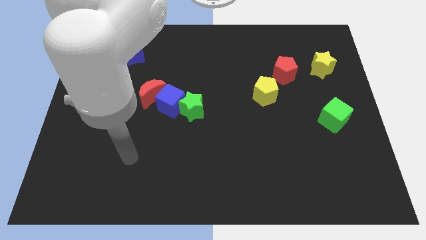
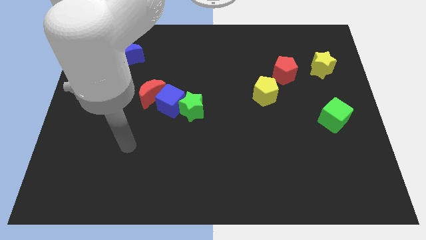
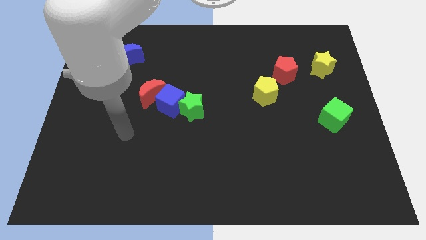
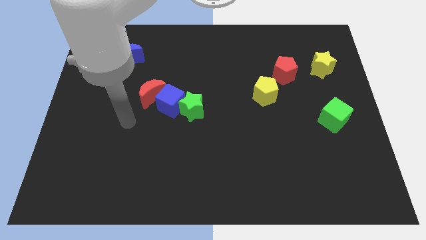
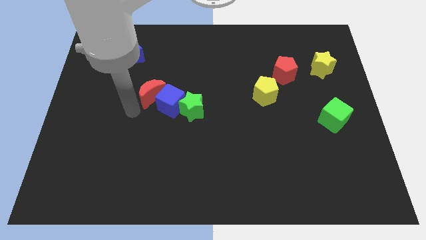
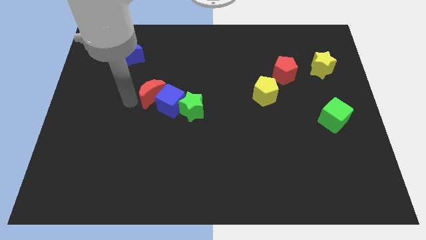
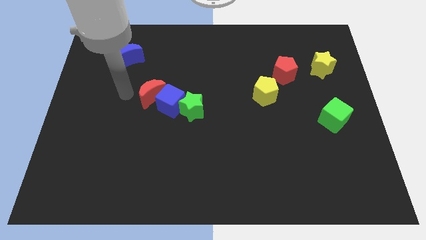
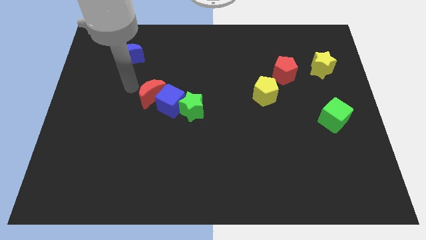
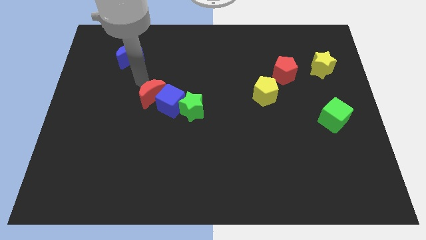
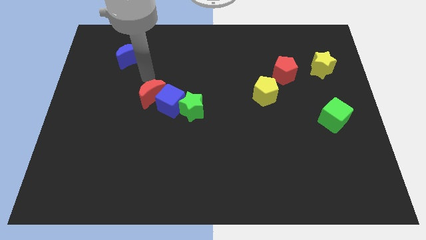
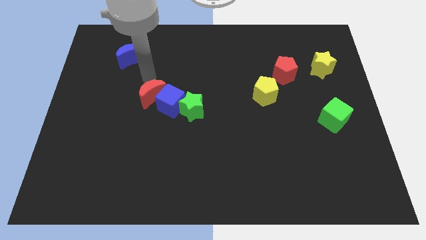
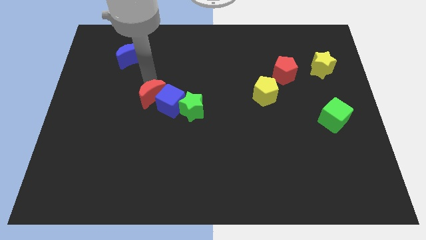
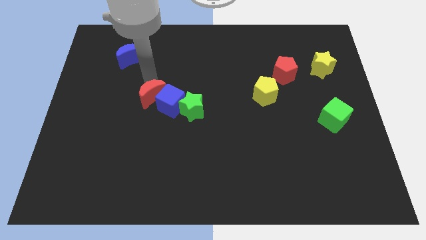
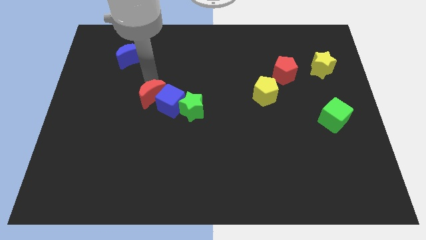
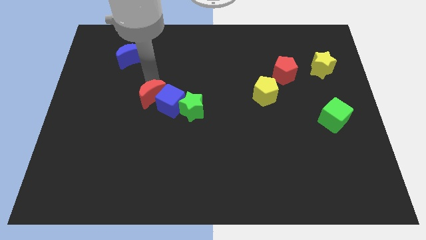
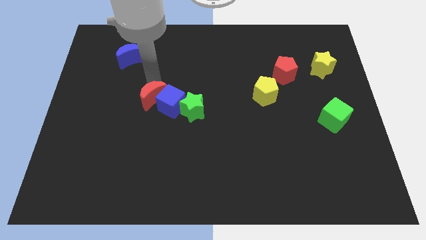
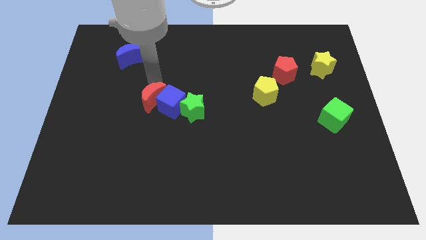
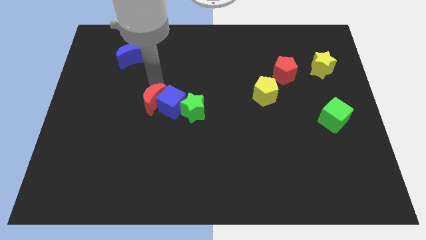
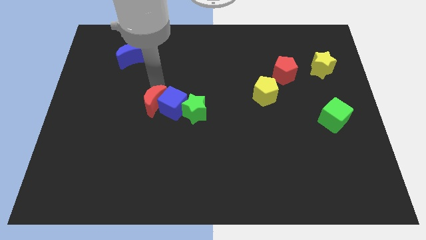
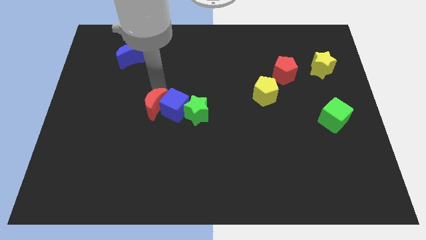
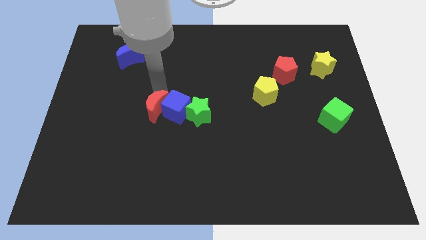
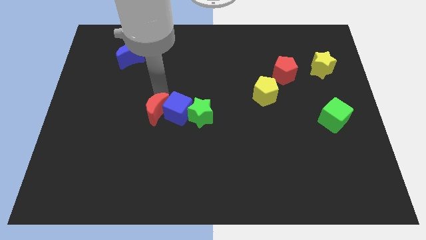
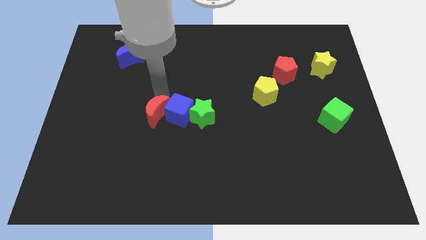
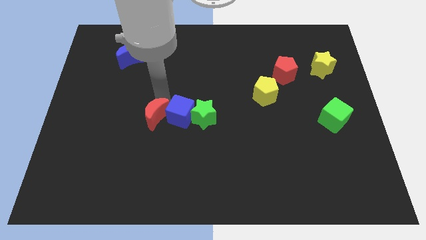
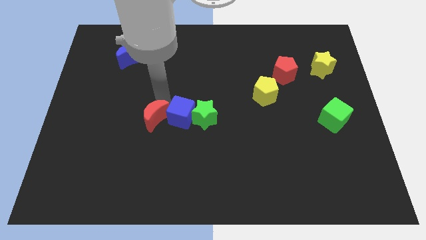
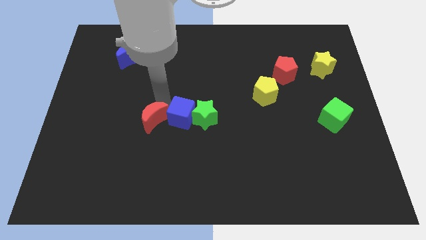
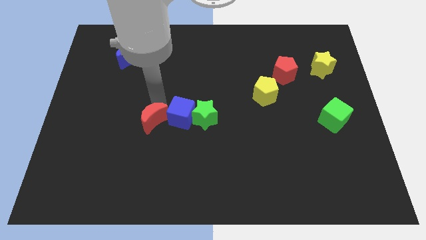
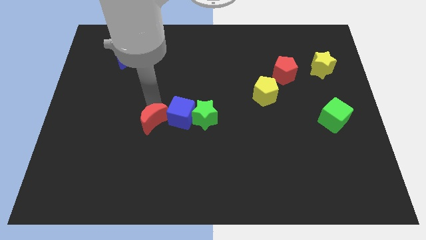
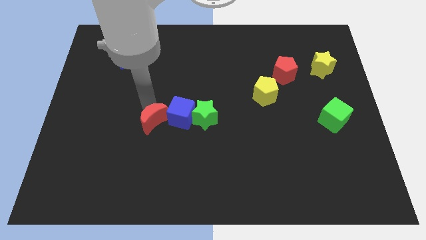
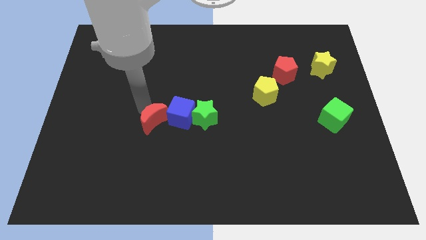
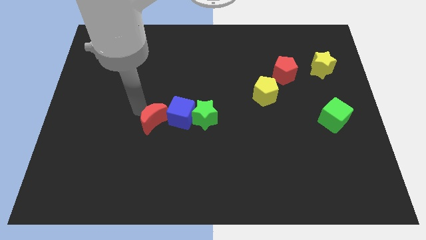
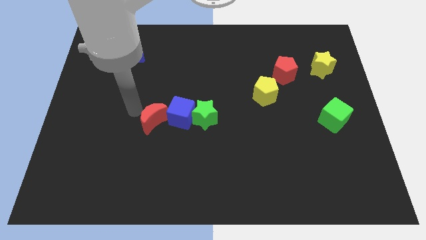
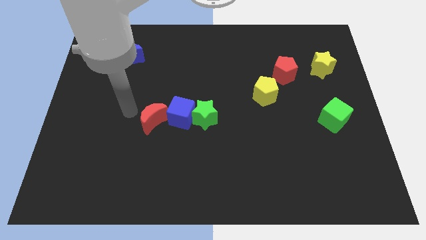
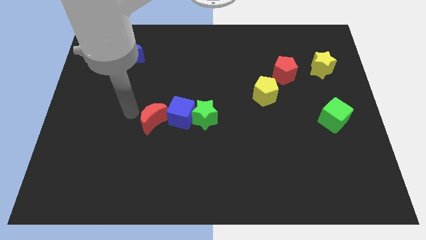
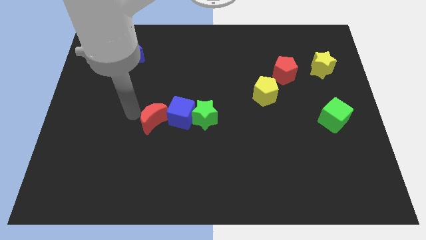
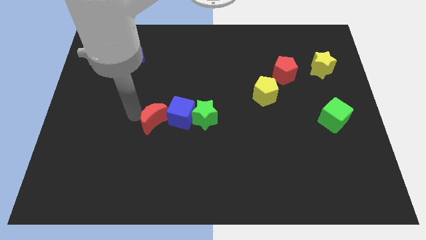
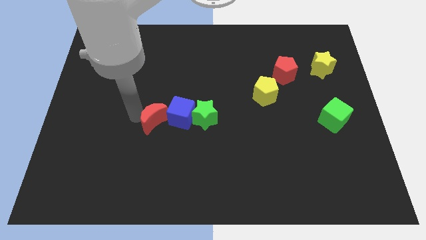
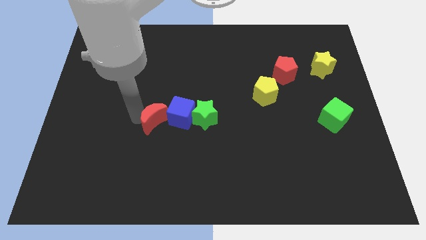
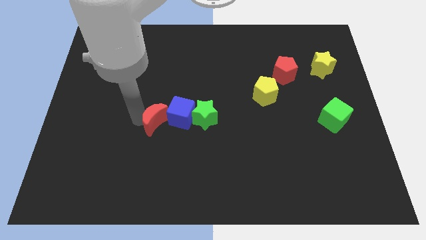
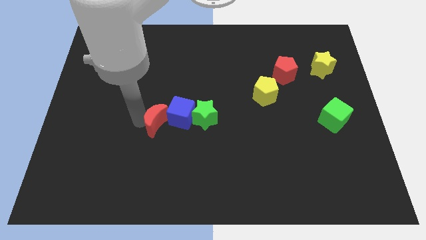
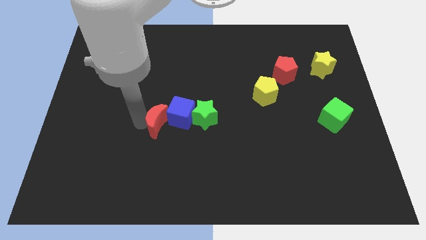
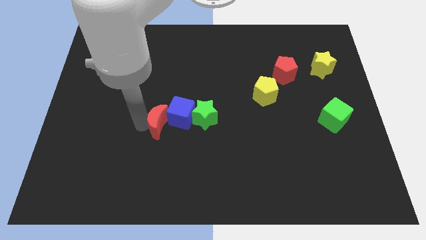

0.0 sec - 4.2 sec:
move the red moon down and right a little bit

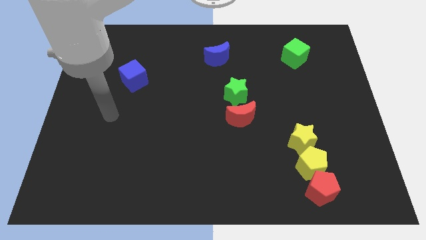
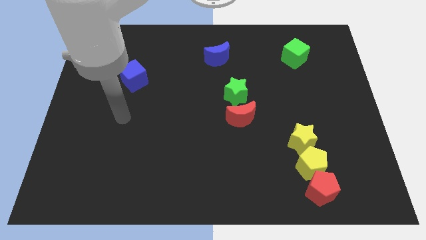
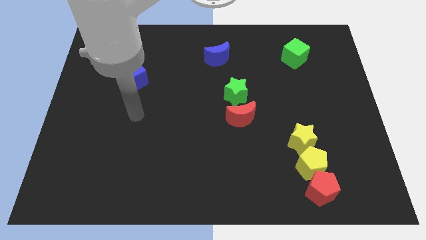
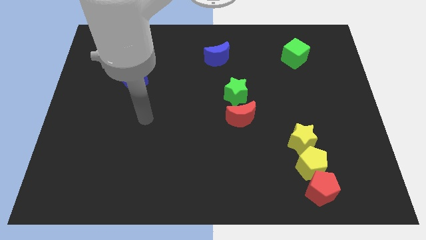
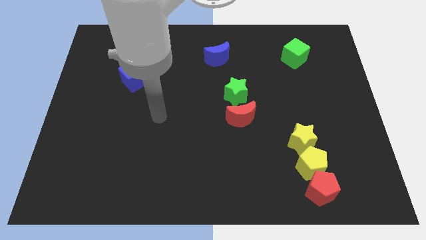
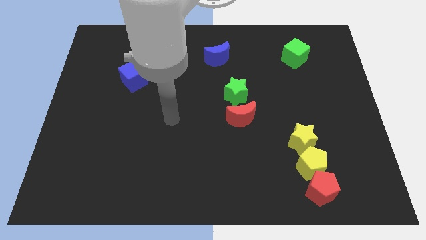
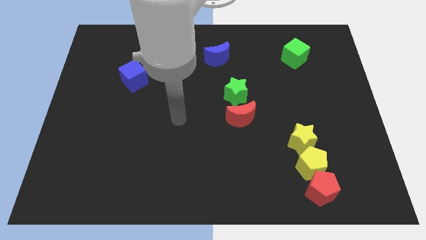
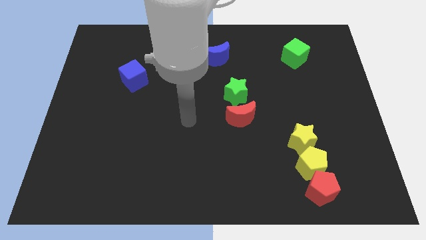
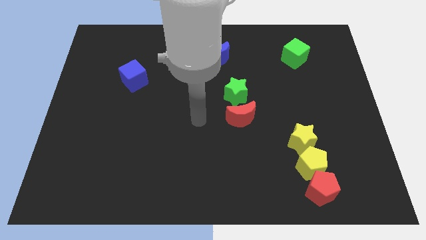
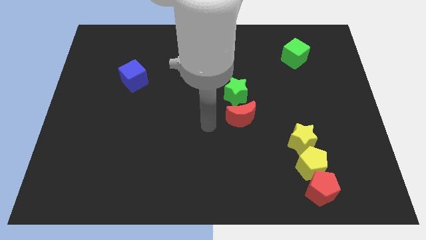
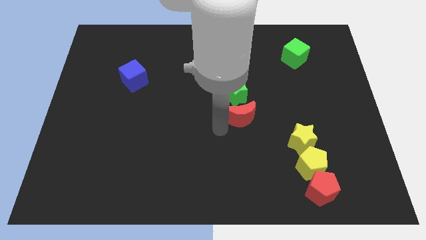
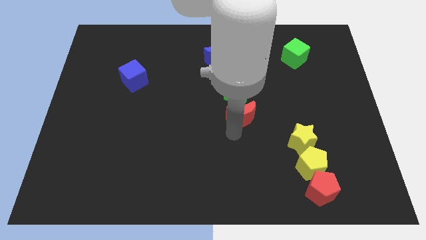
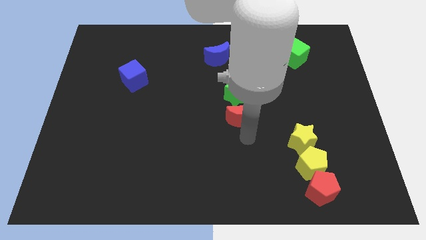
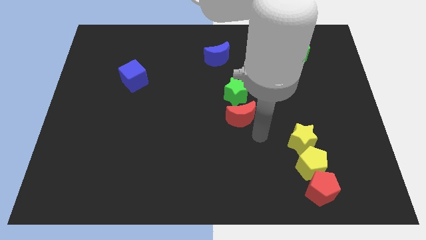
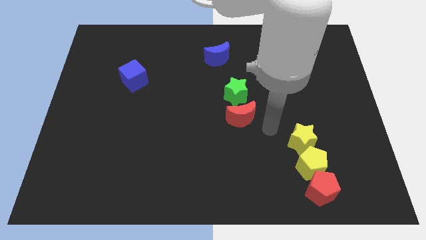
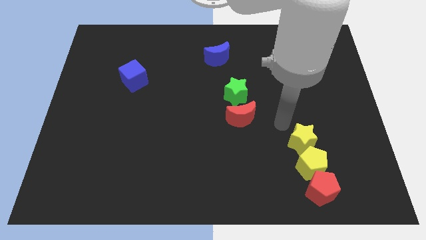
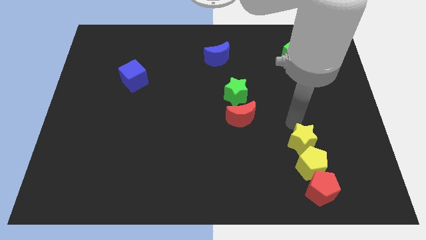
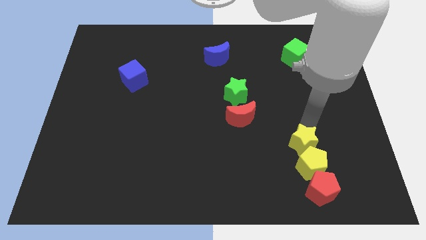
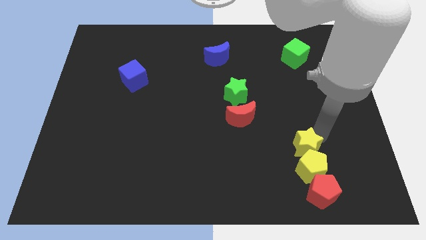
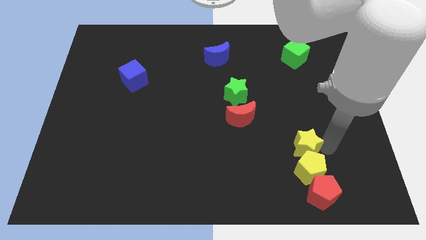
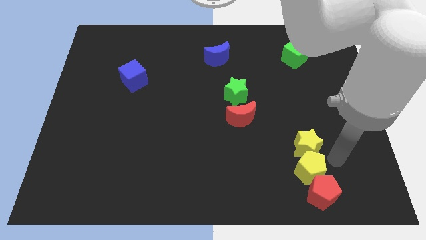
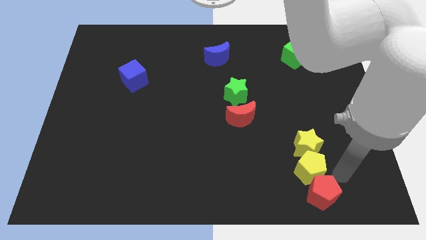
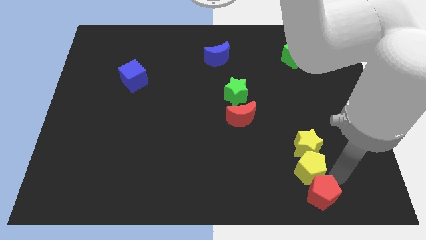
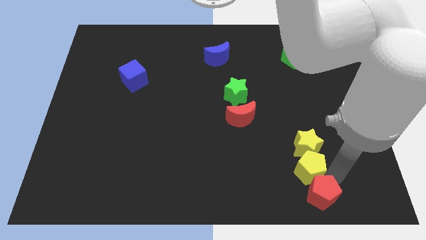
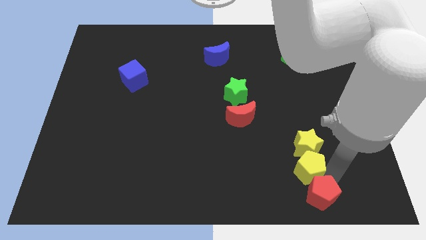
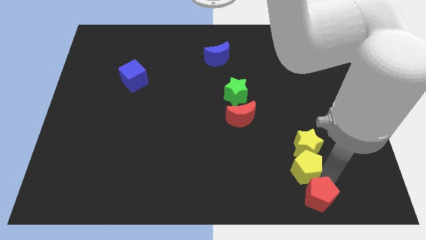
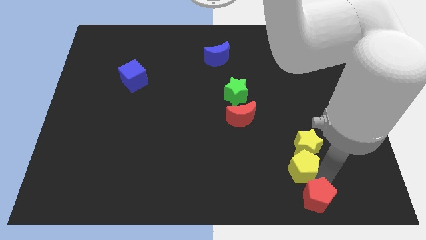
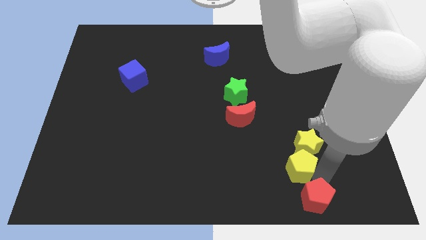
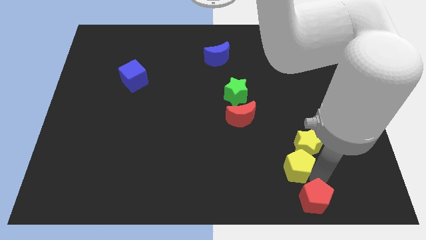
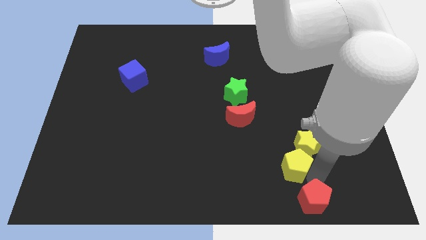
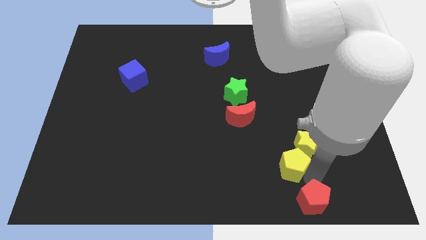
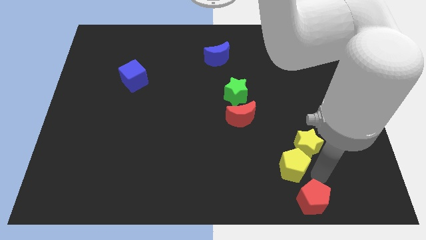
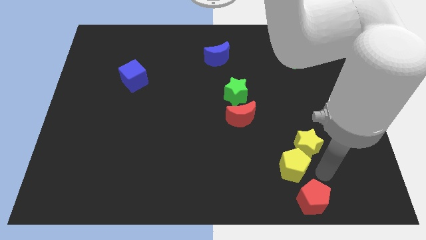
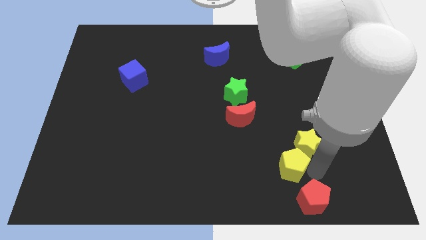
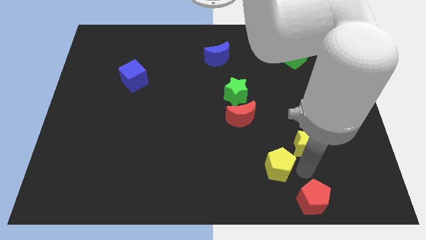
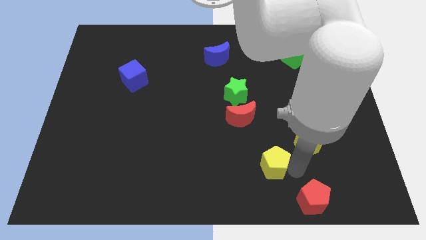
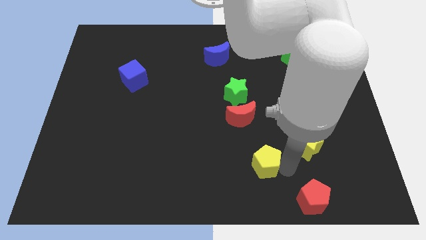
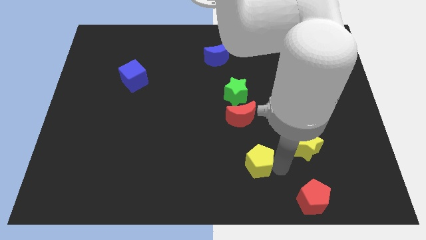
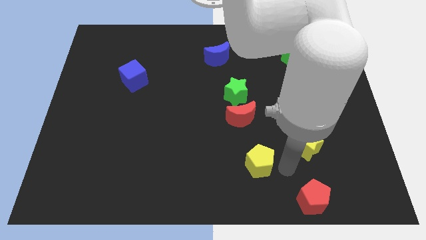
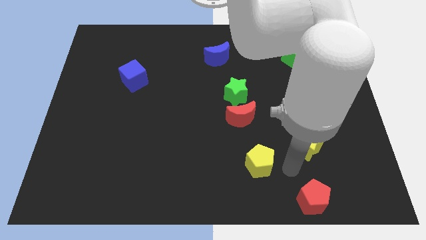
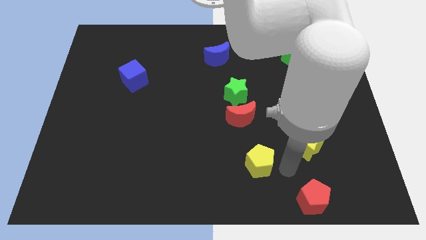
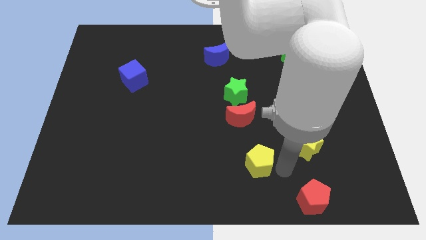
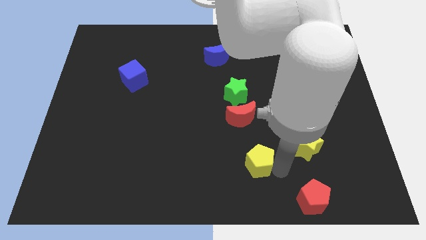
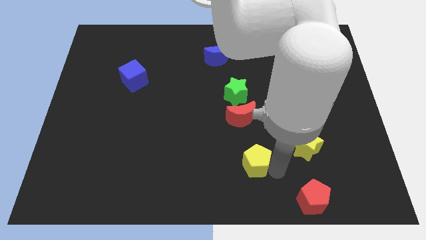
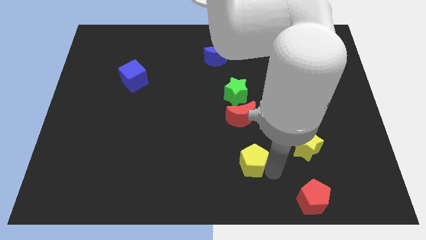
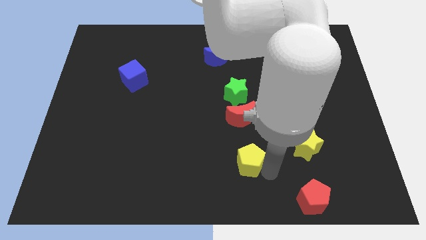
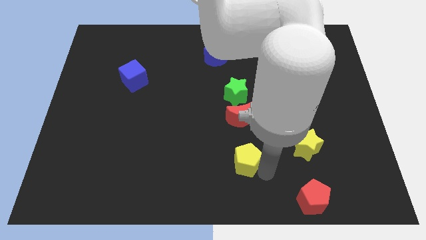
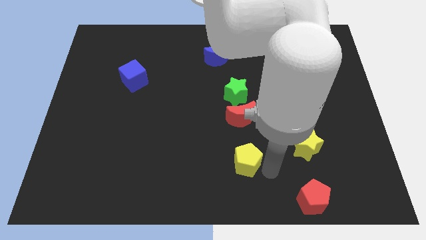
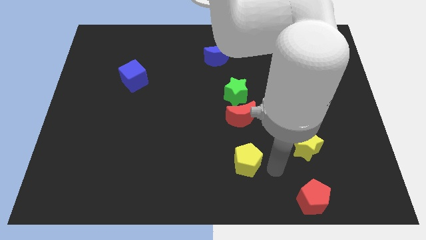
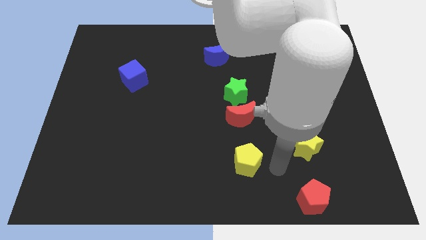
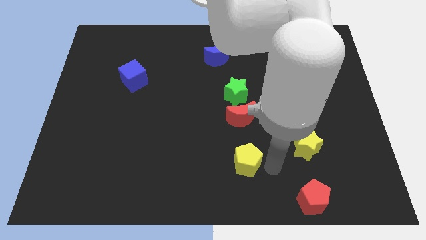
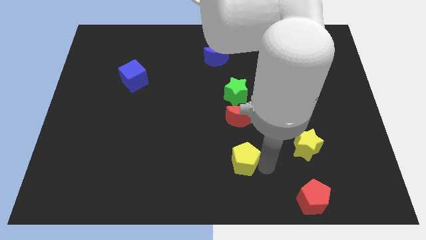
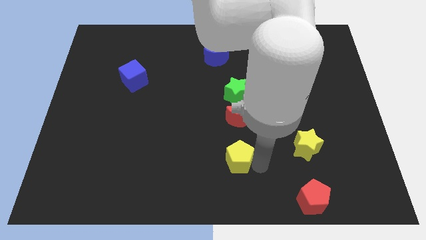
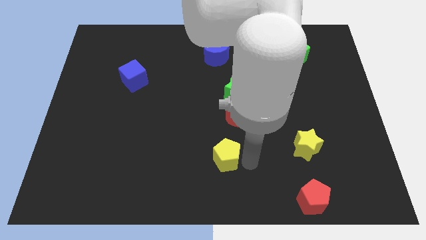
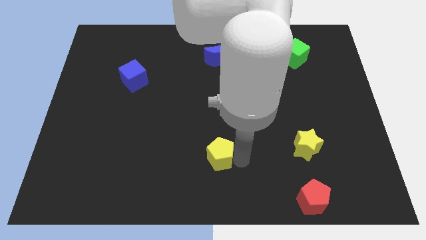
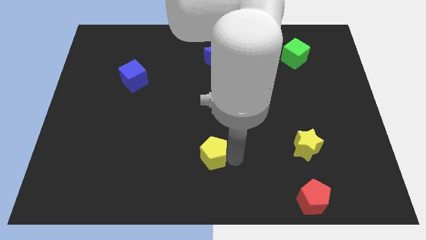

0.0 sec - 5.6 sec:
slide the yellow pentagon to the left
